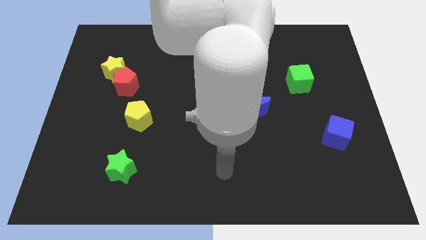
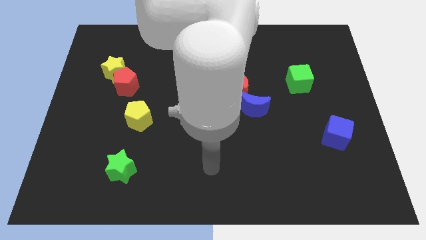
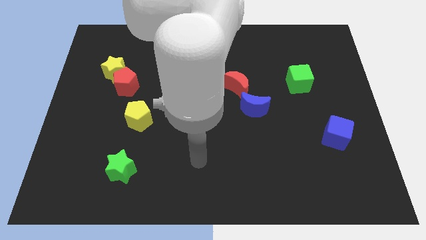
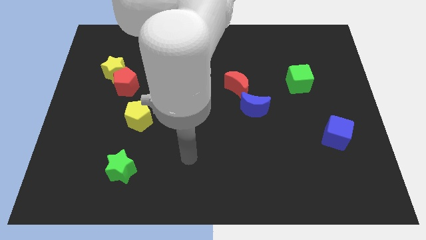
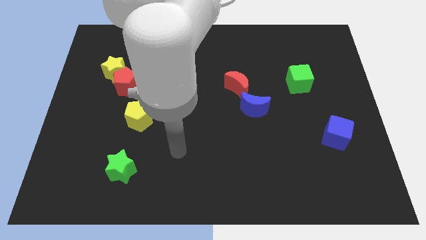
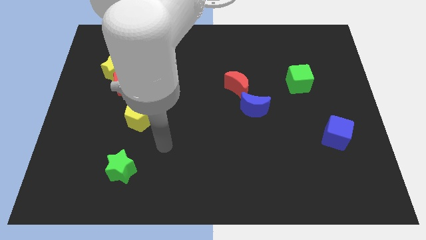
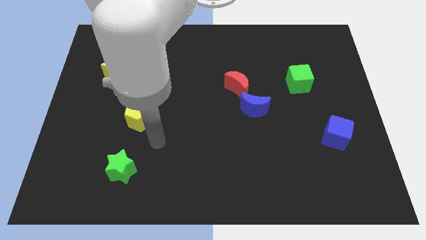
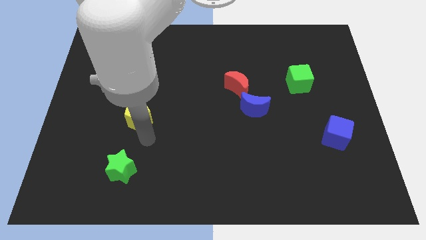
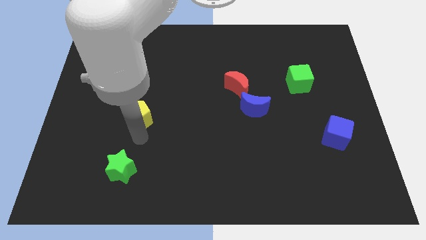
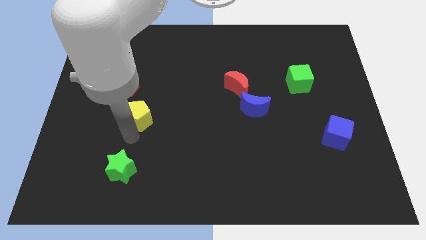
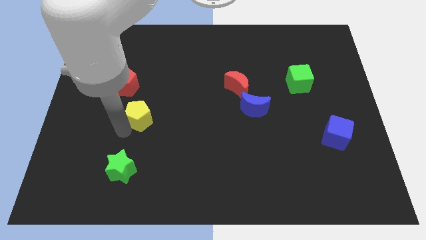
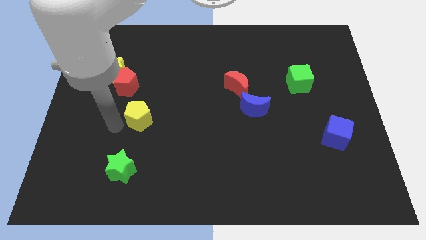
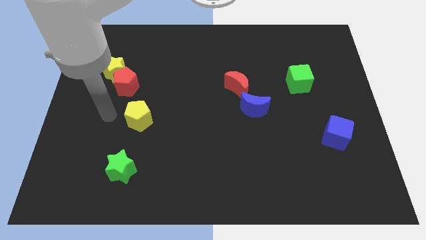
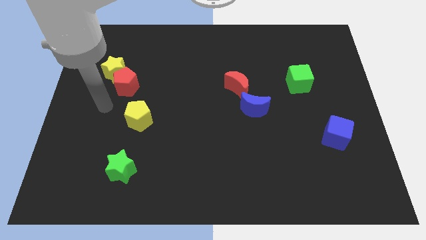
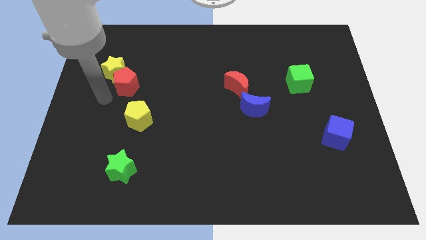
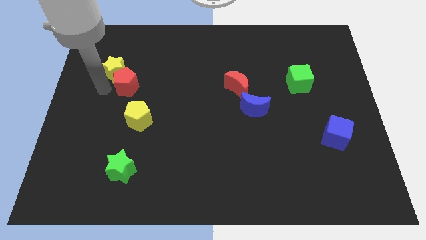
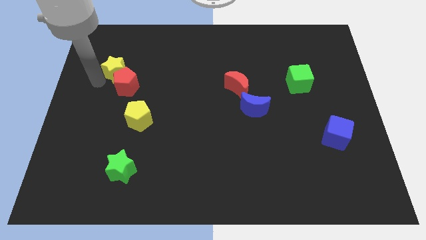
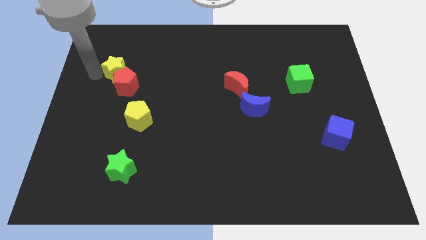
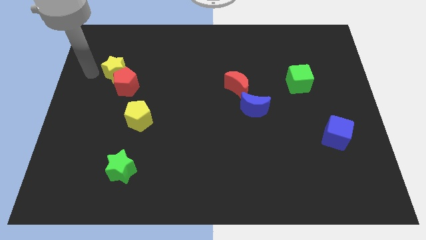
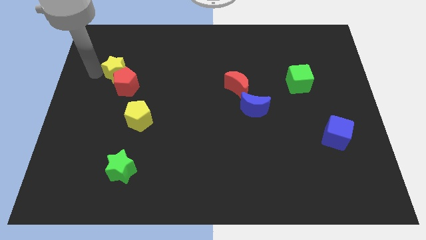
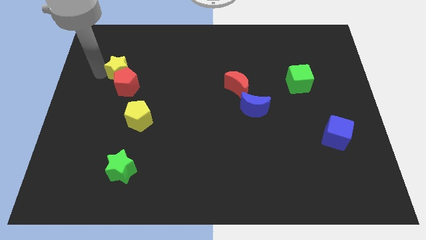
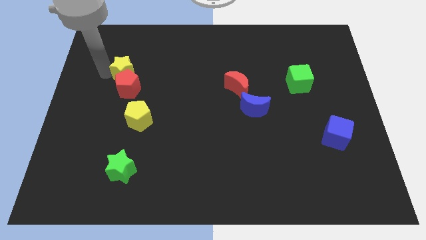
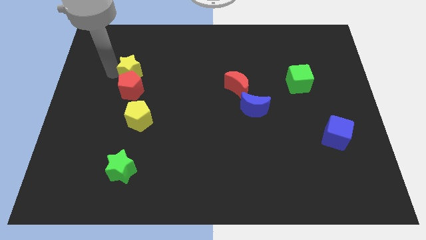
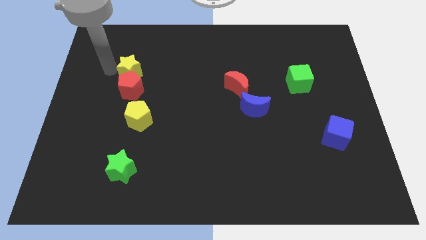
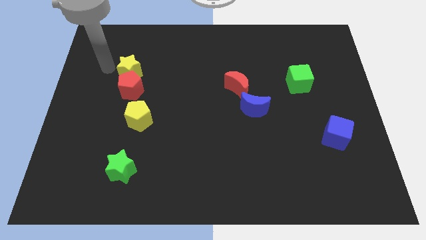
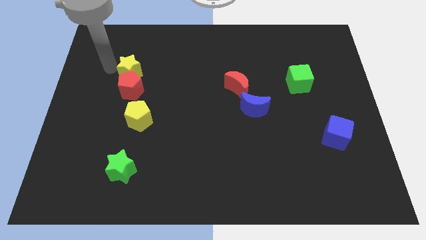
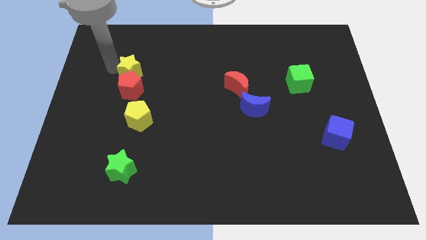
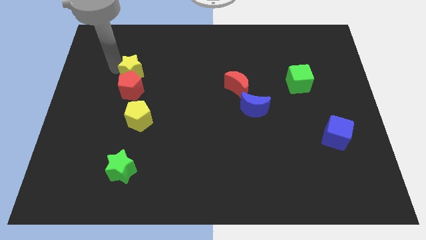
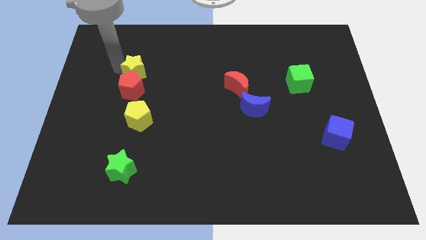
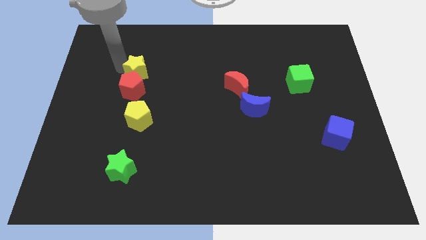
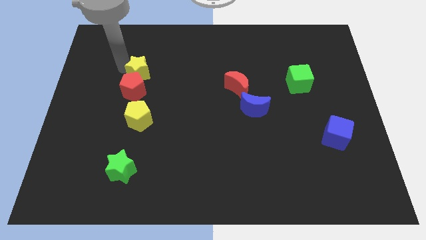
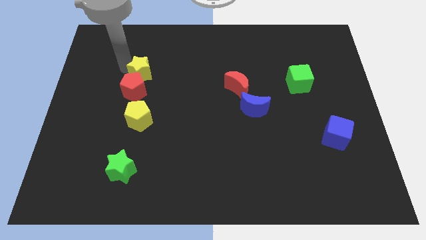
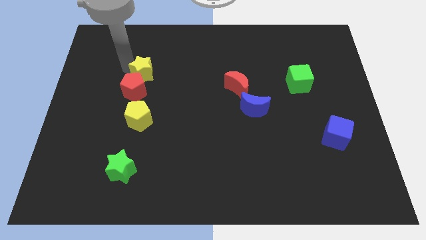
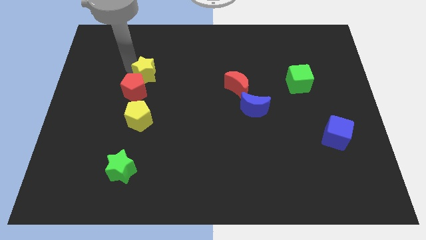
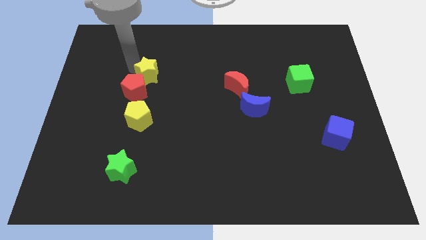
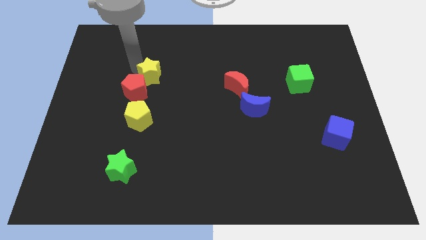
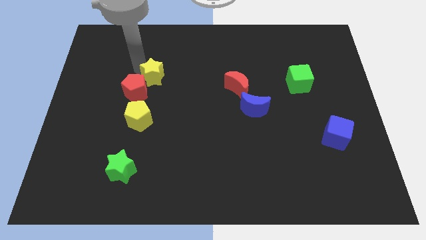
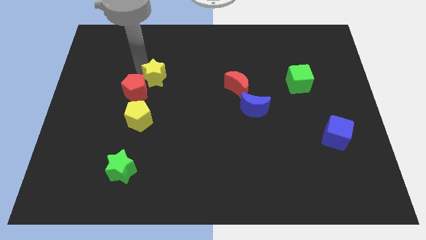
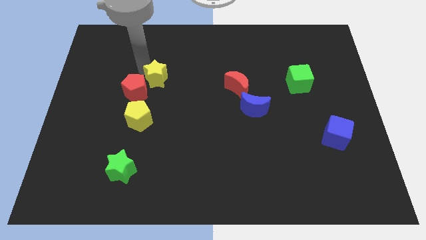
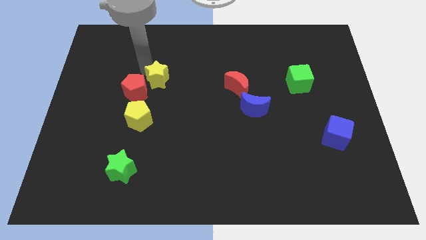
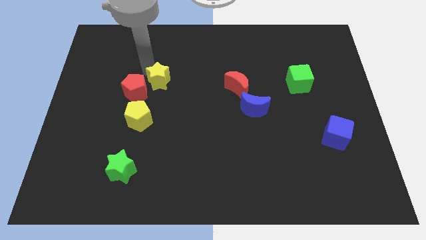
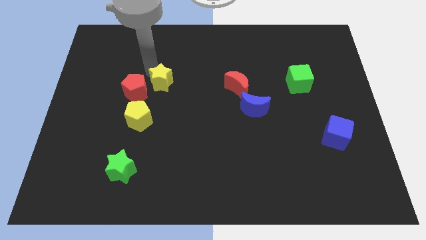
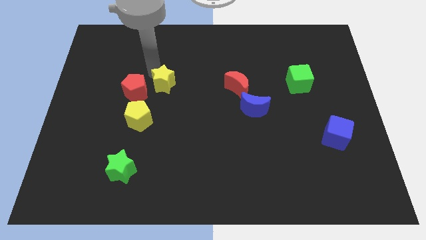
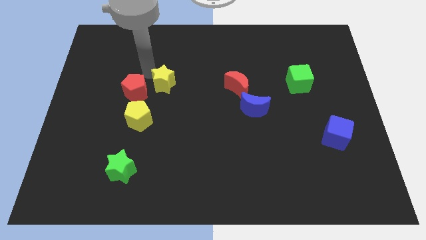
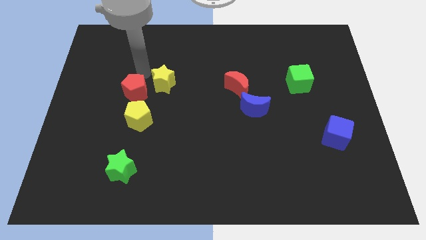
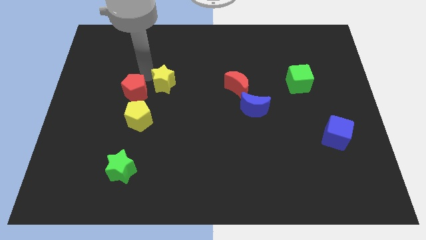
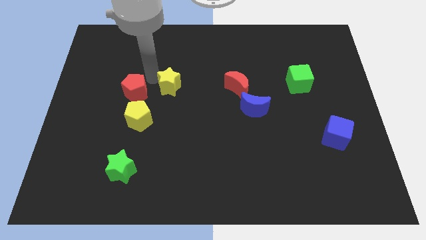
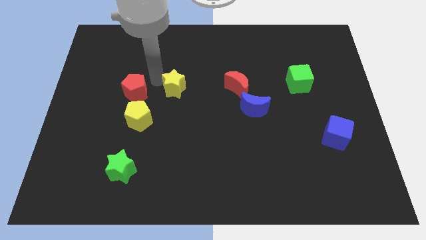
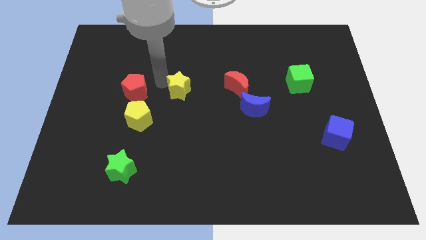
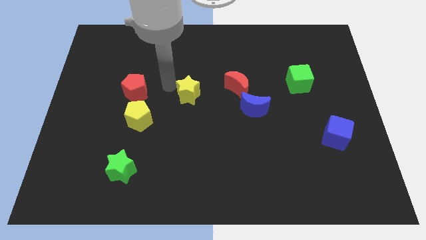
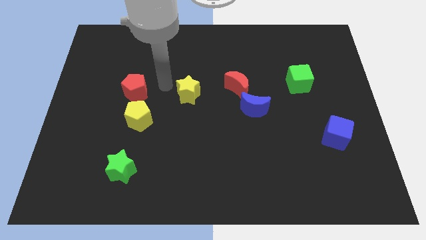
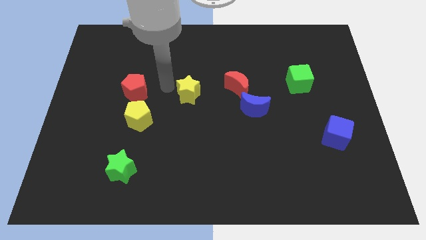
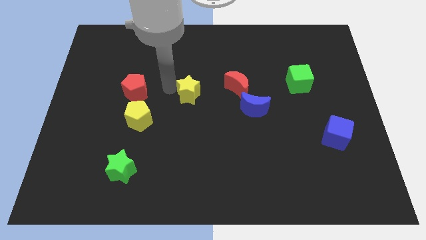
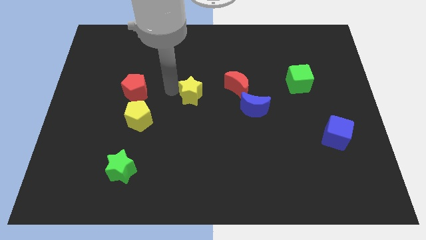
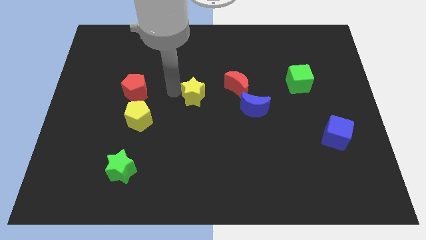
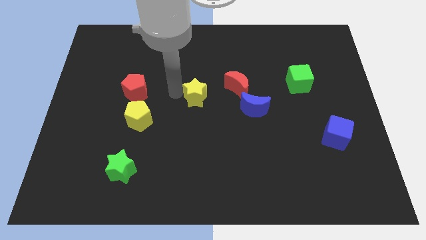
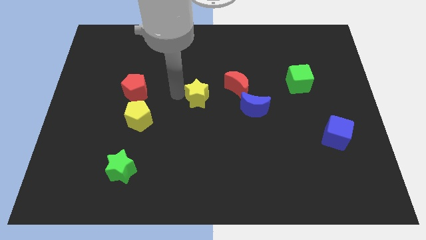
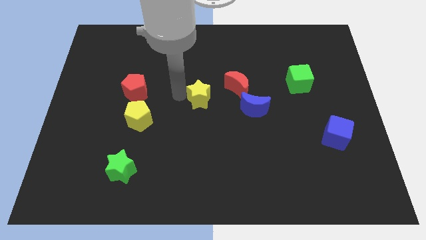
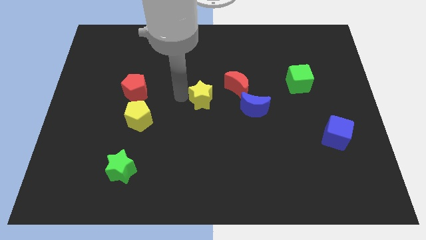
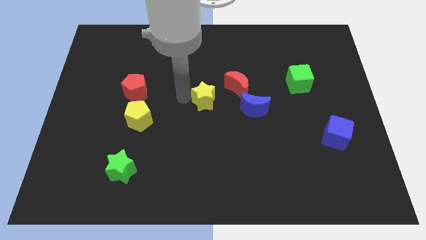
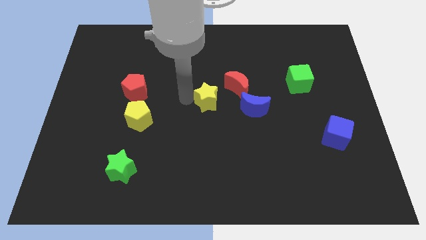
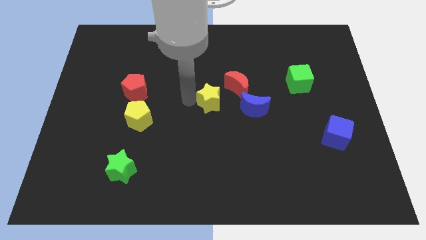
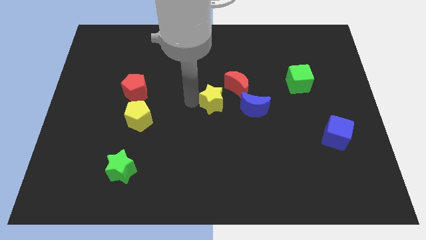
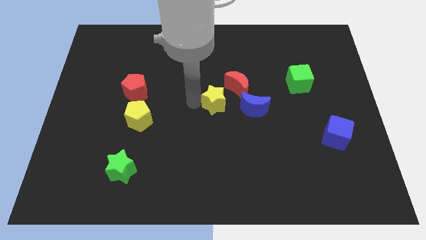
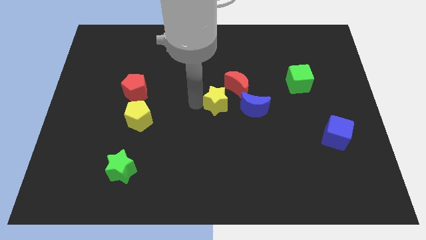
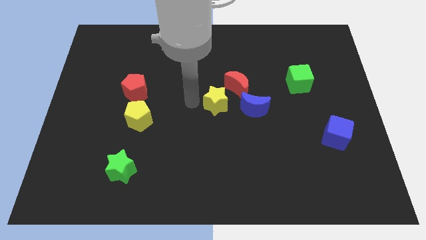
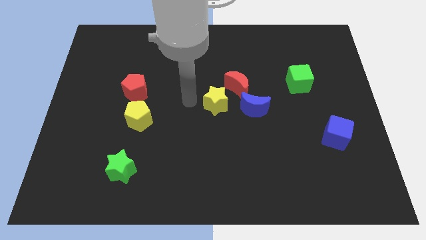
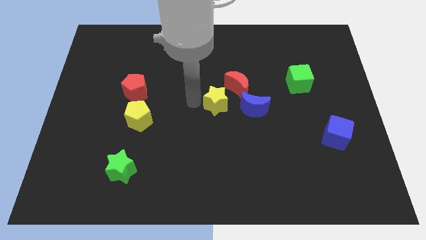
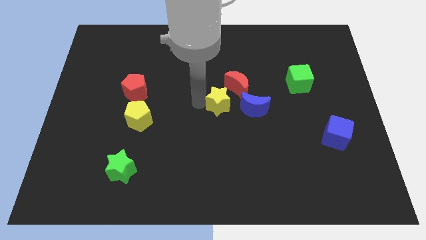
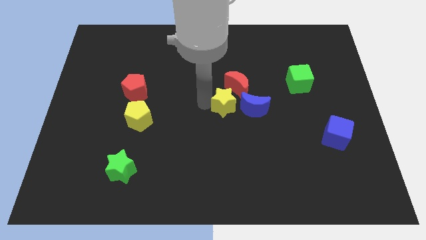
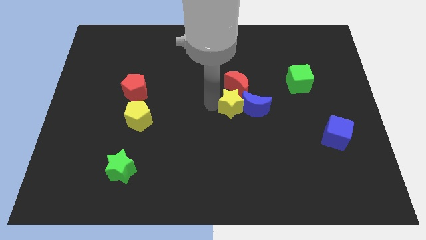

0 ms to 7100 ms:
slide the yellow star next to the blue moon
